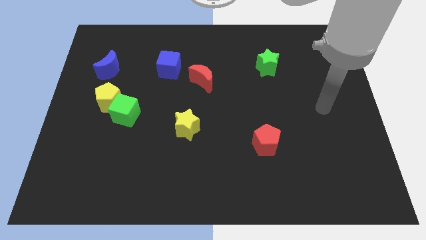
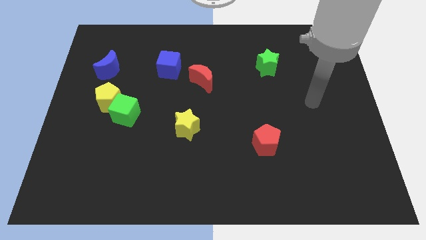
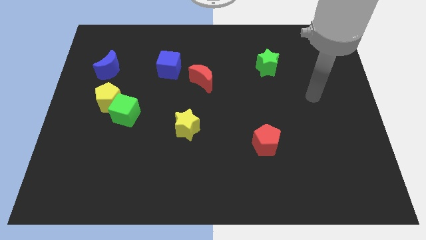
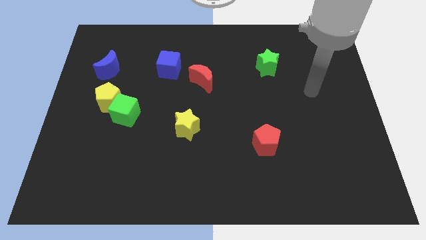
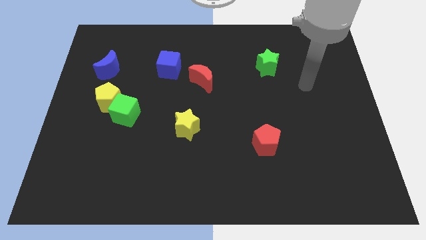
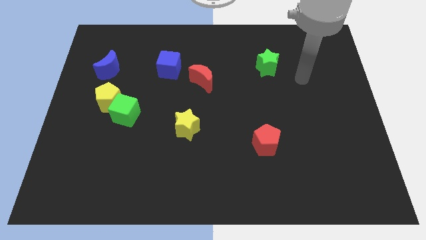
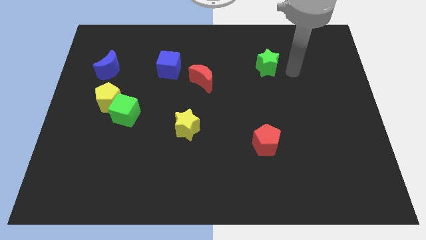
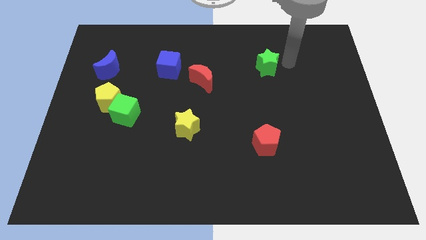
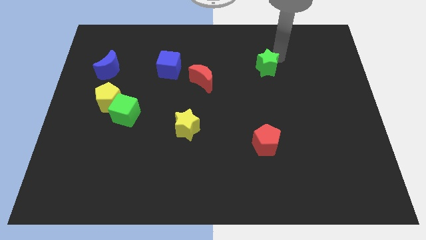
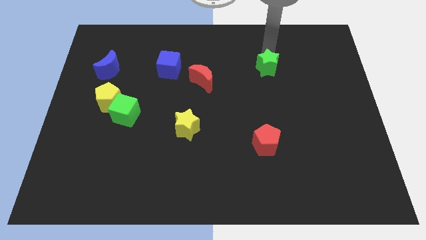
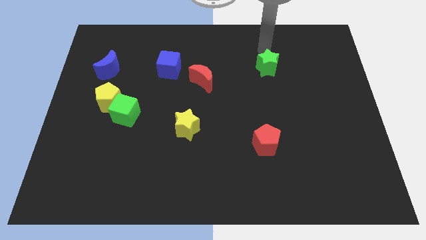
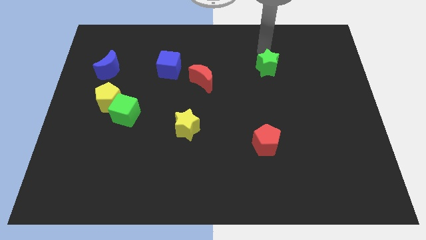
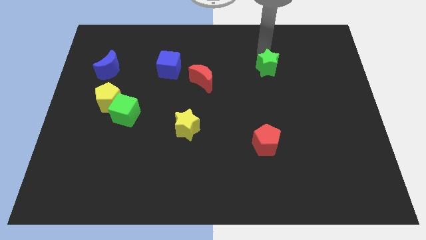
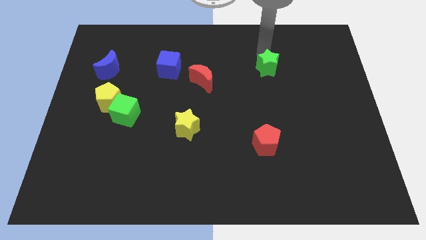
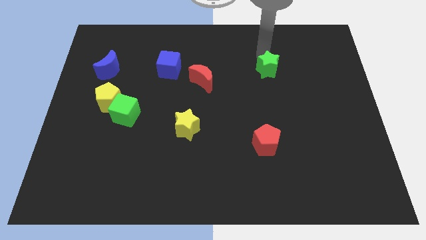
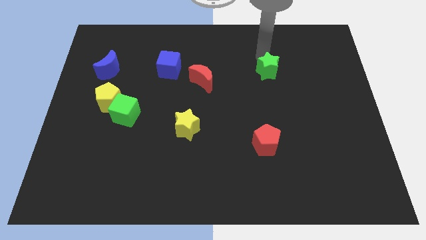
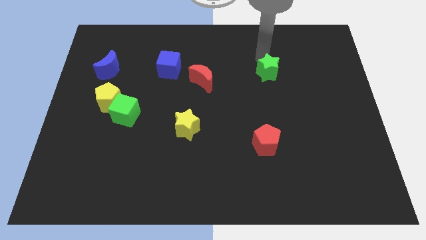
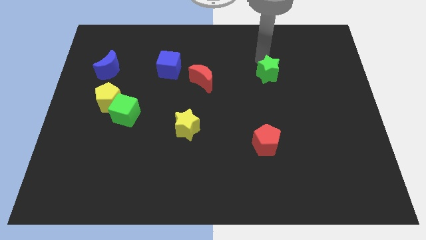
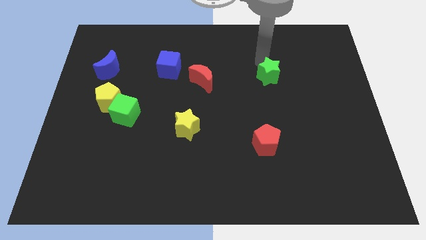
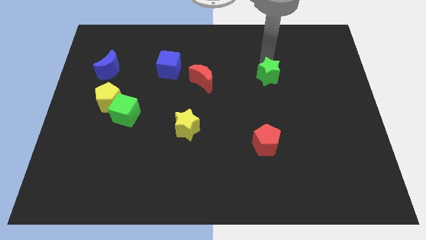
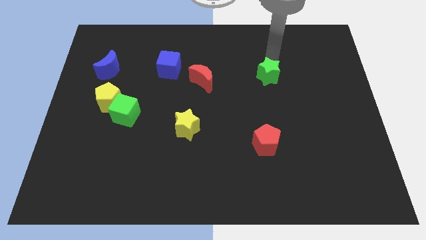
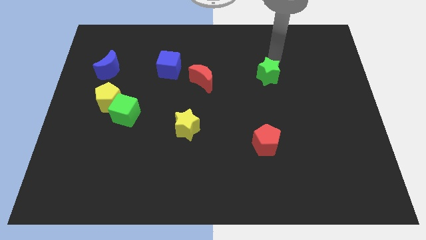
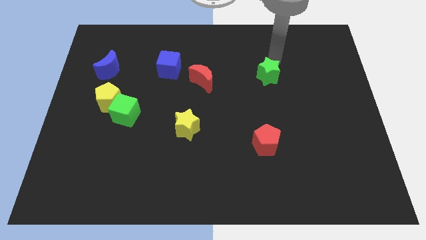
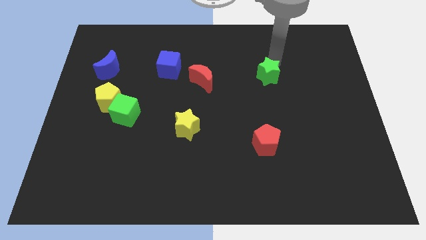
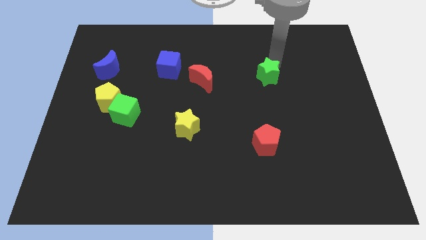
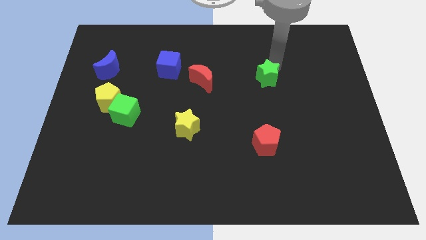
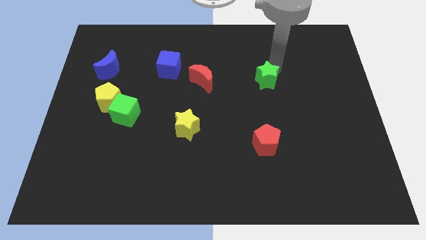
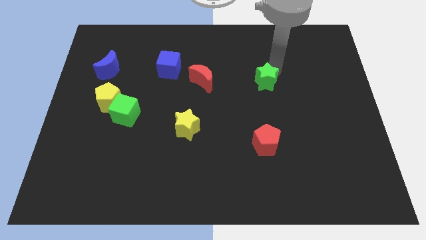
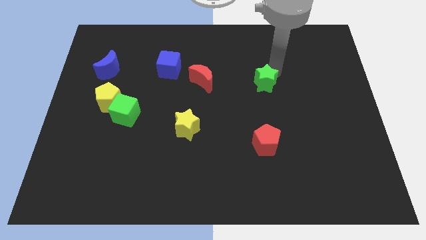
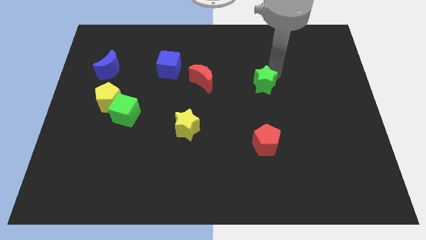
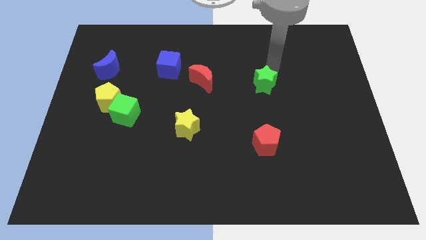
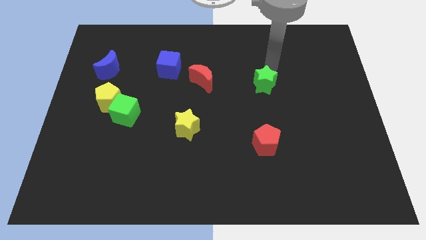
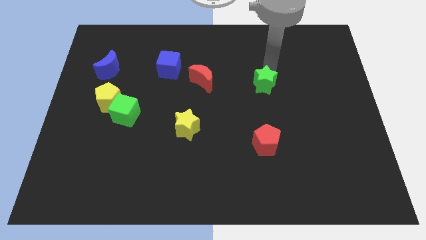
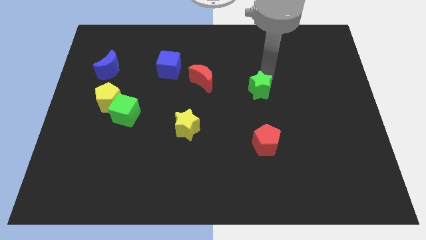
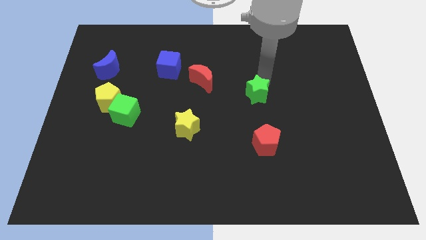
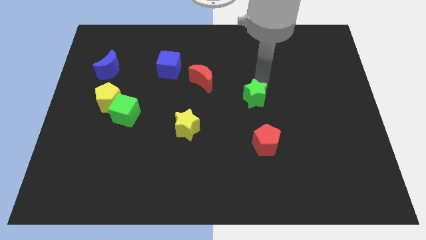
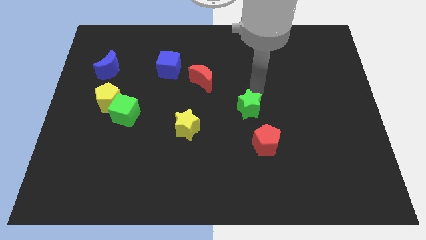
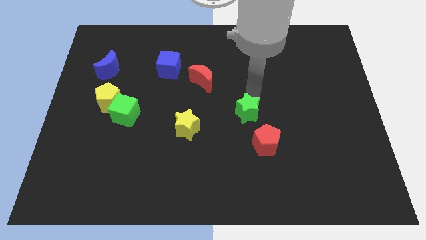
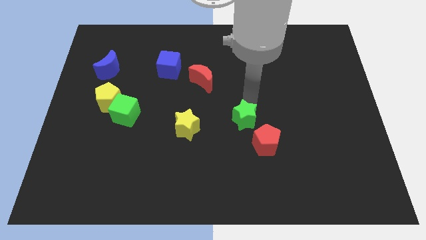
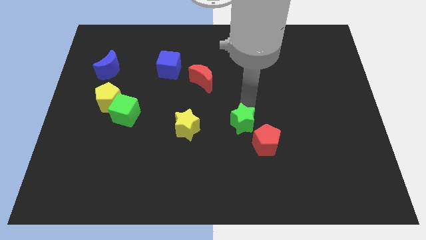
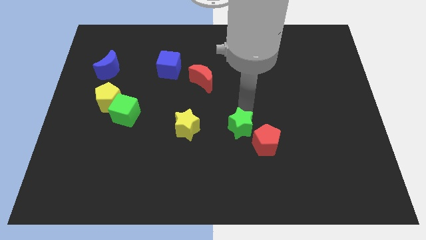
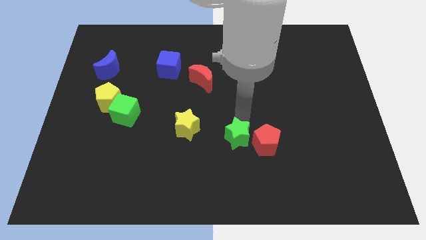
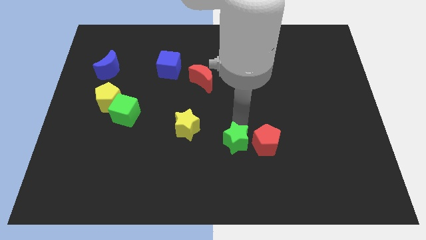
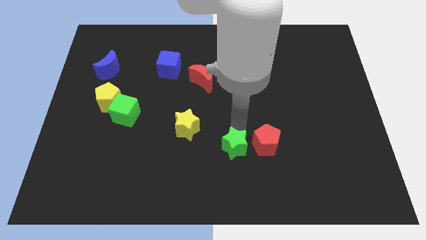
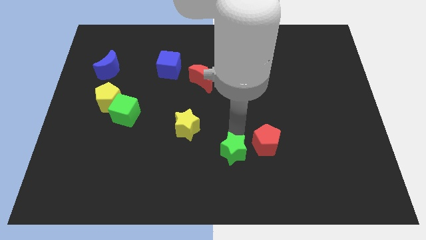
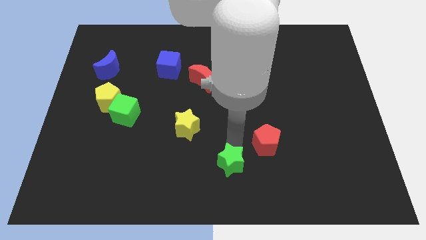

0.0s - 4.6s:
move the green star to the bottom

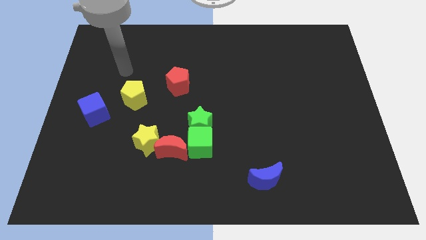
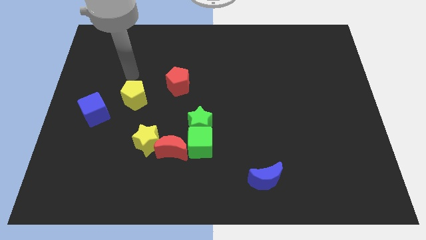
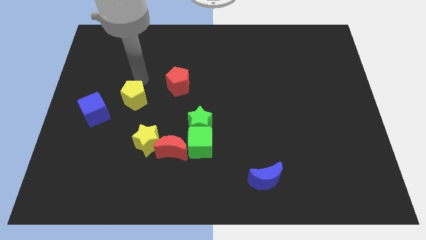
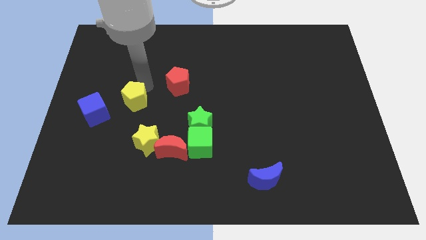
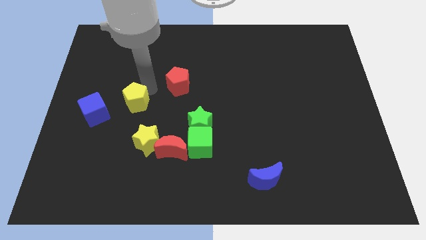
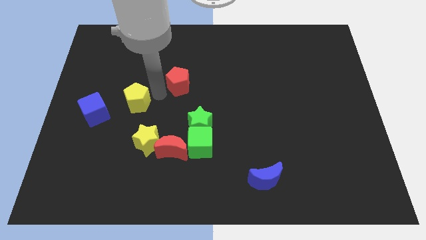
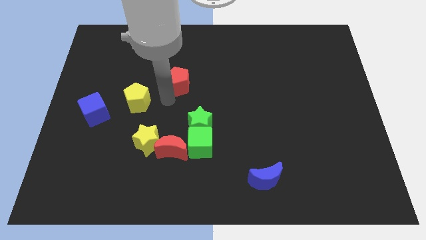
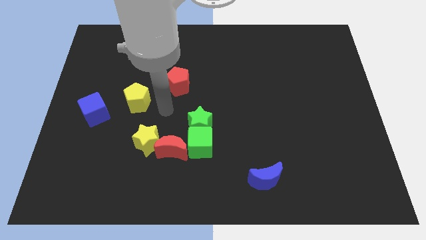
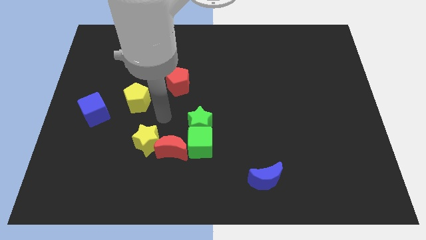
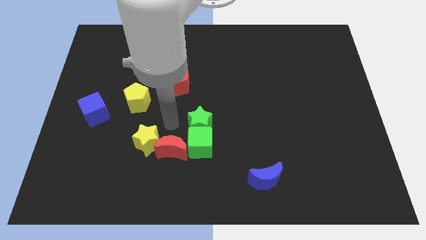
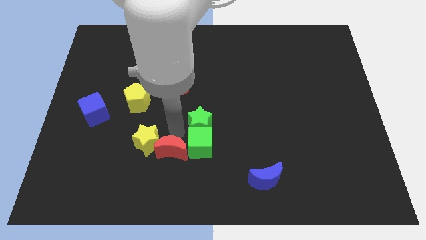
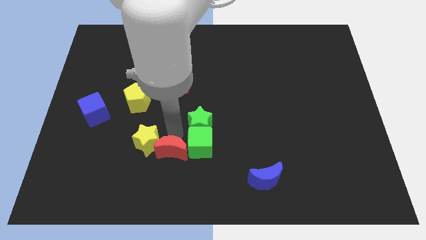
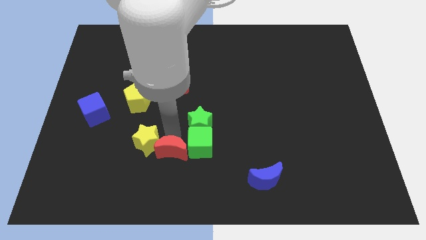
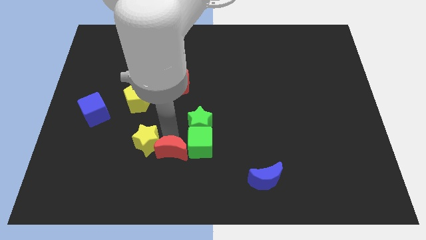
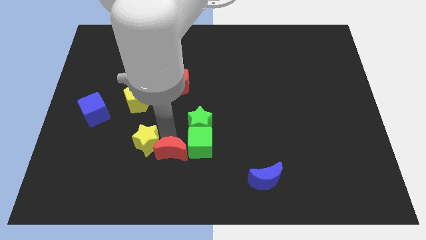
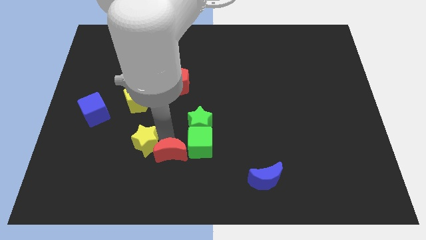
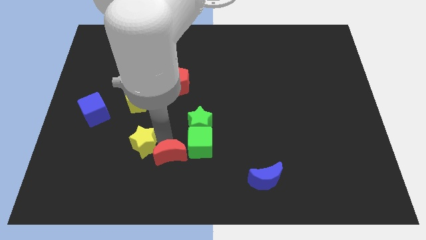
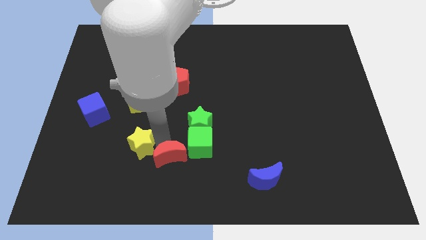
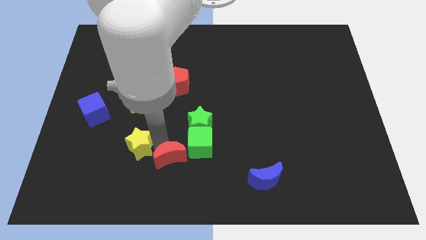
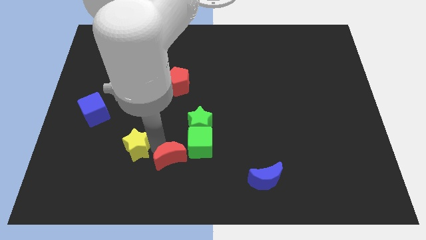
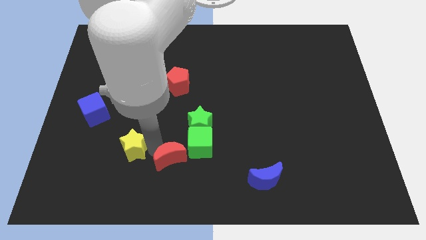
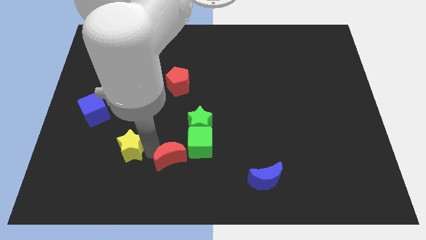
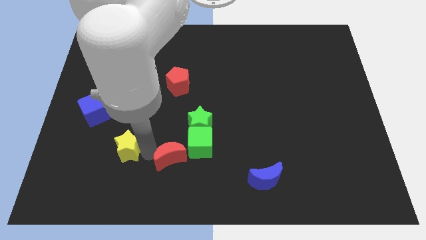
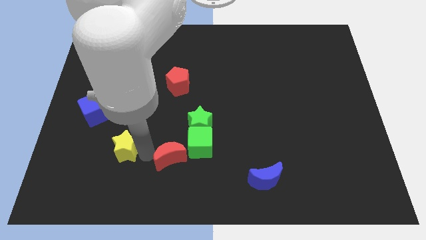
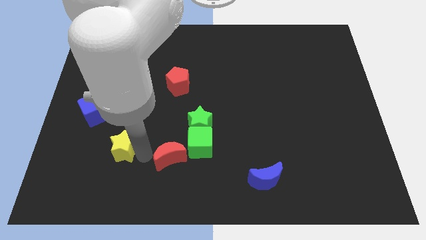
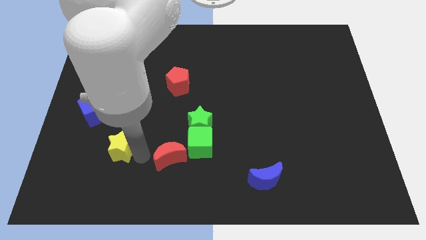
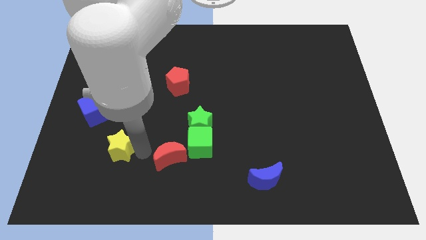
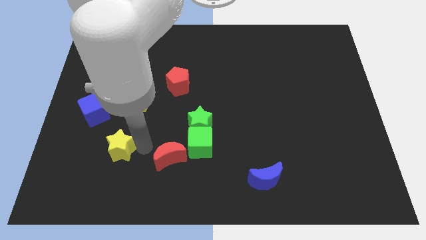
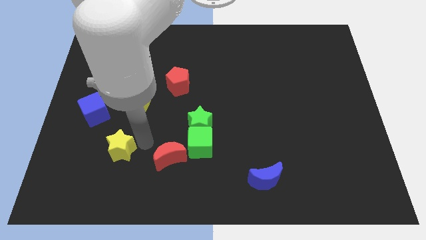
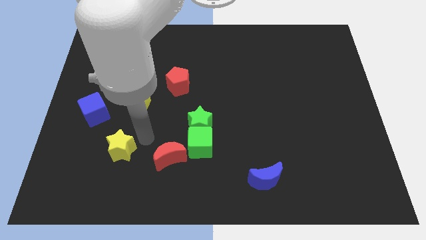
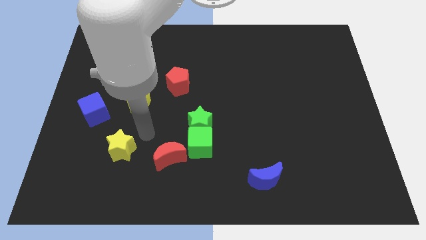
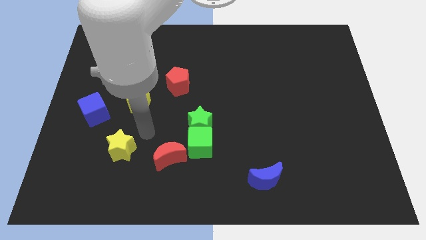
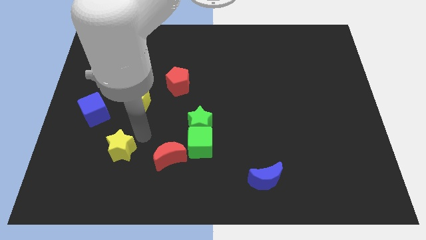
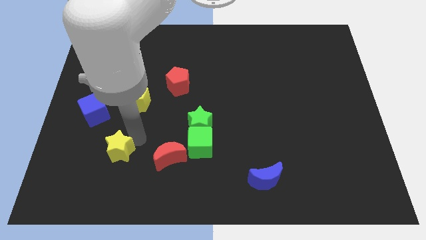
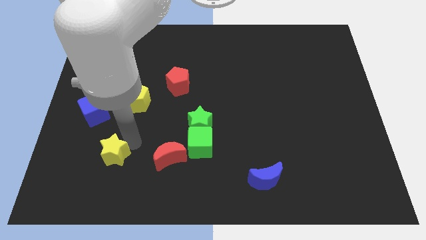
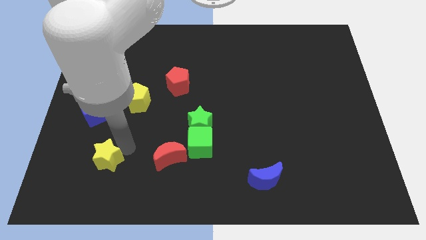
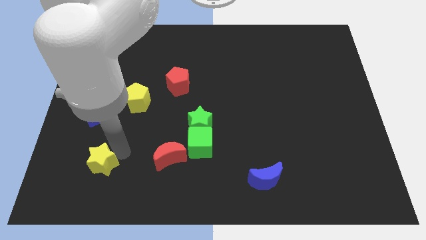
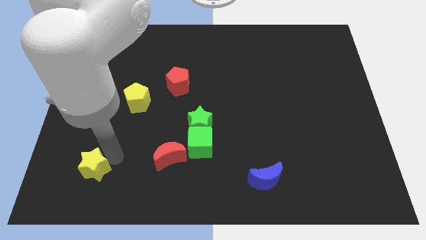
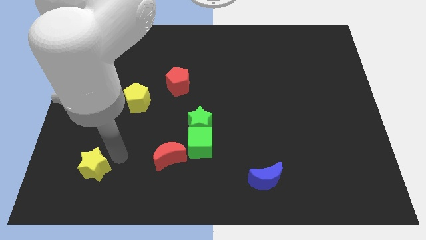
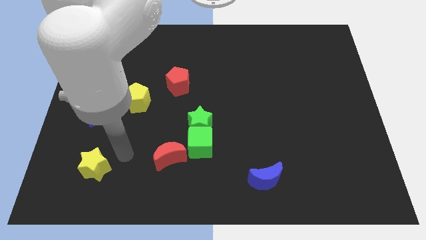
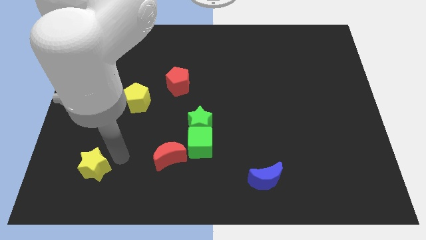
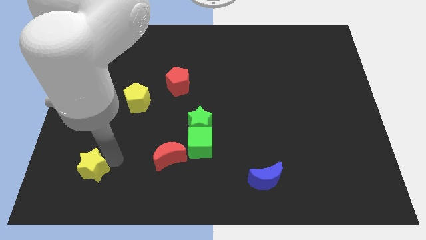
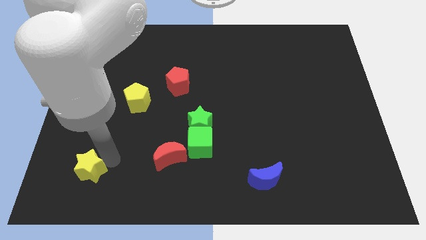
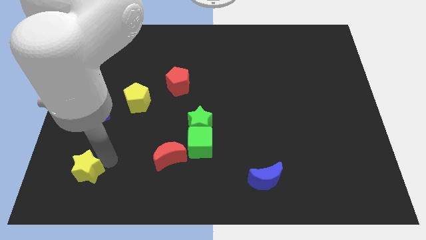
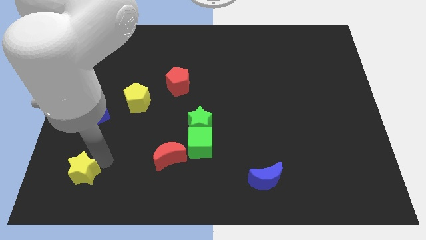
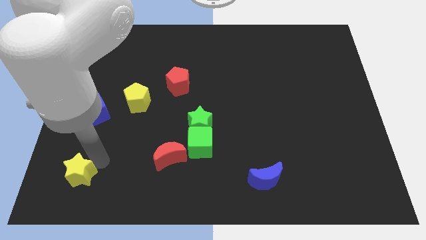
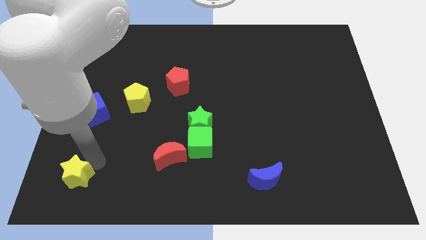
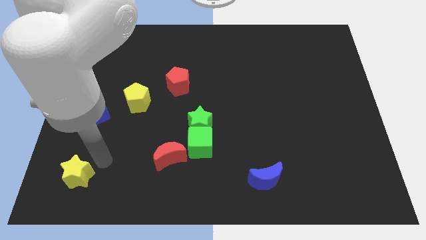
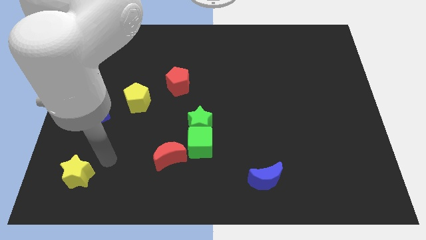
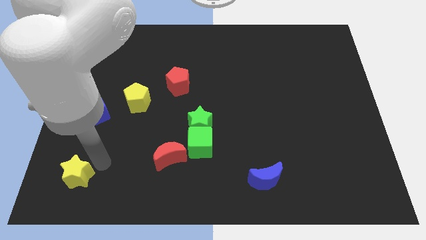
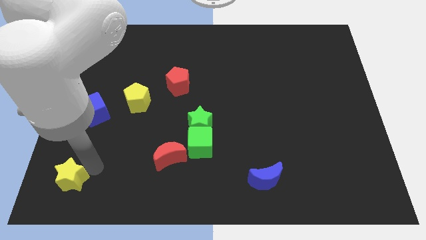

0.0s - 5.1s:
move the yellow star to the bottom left
